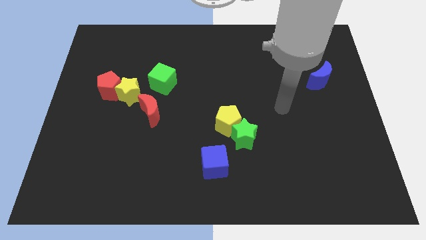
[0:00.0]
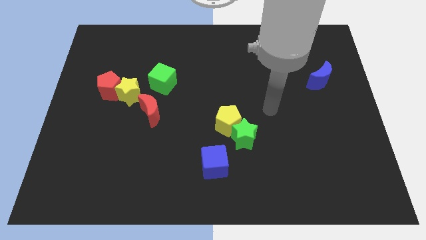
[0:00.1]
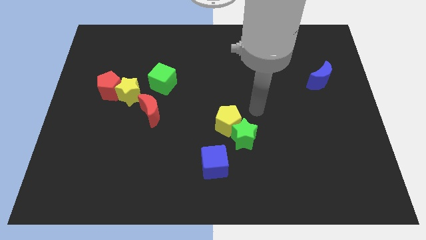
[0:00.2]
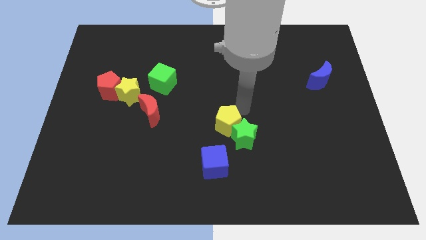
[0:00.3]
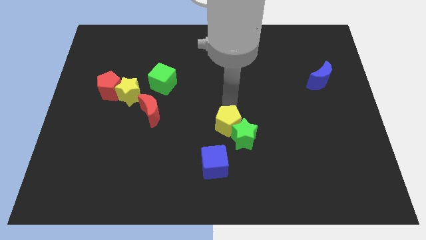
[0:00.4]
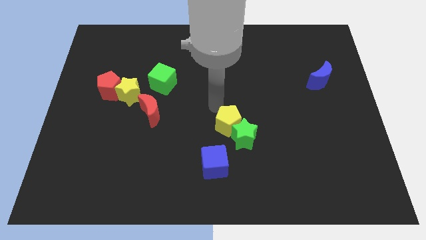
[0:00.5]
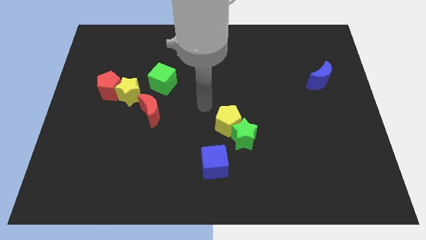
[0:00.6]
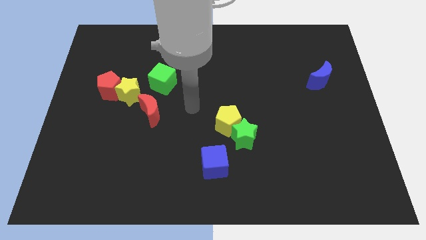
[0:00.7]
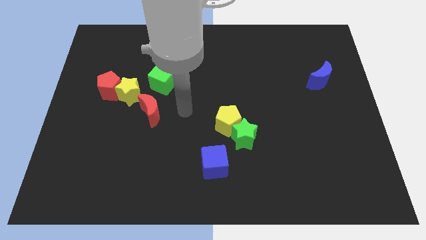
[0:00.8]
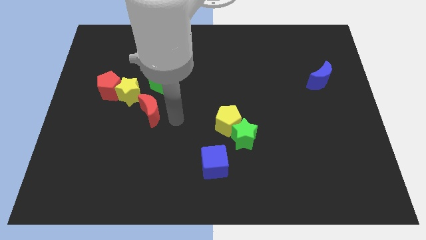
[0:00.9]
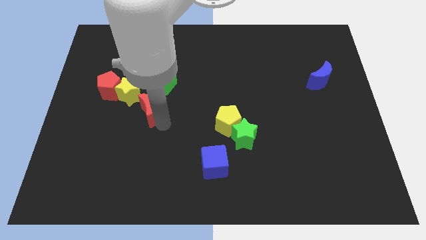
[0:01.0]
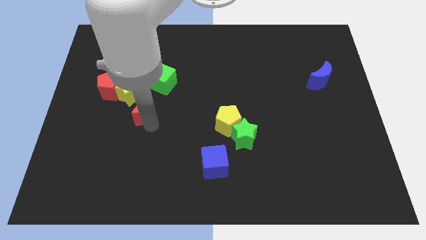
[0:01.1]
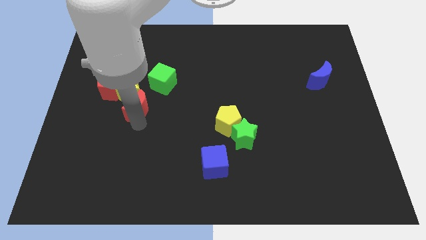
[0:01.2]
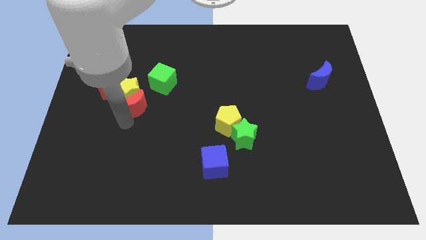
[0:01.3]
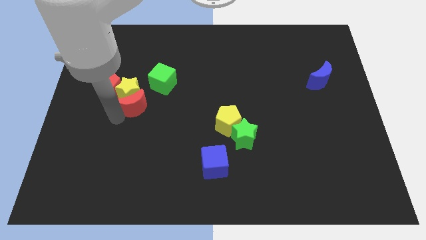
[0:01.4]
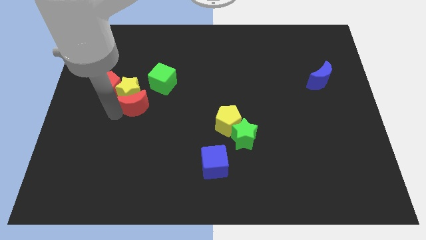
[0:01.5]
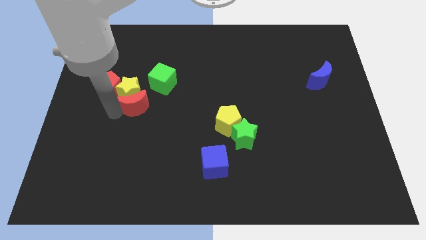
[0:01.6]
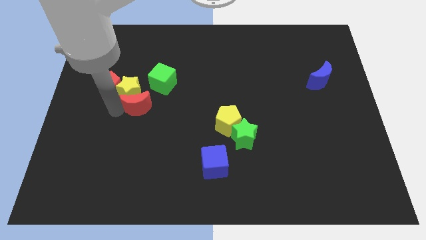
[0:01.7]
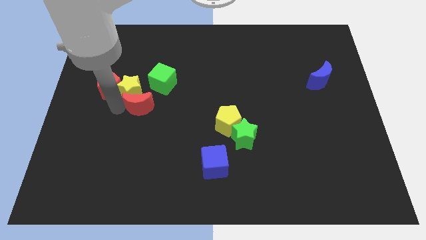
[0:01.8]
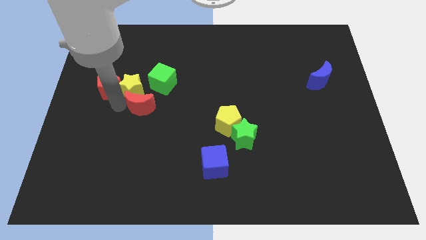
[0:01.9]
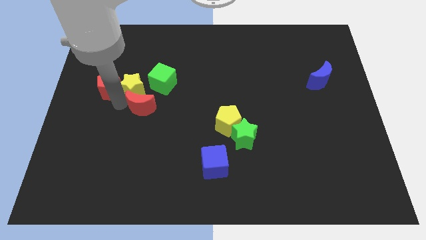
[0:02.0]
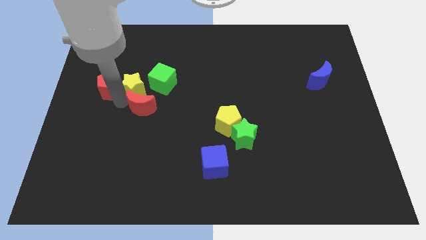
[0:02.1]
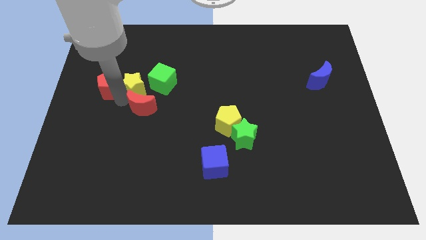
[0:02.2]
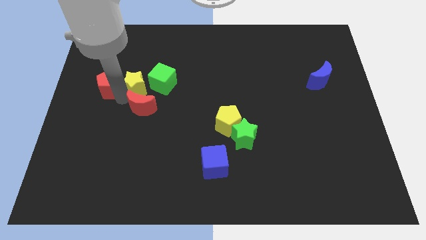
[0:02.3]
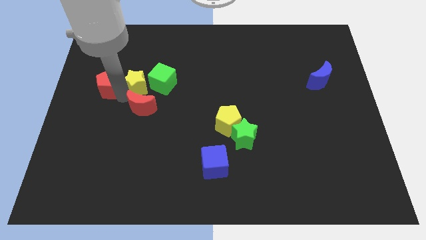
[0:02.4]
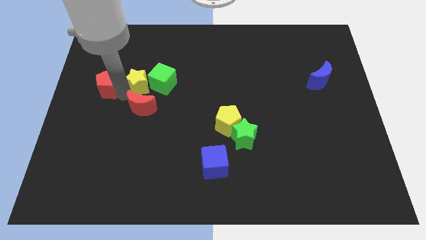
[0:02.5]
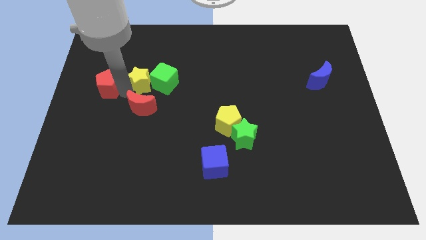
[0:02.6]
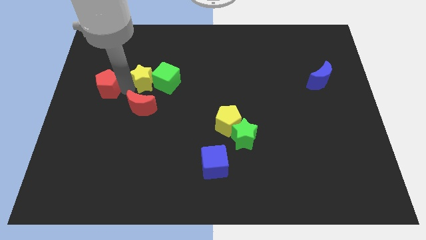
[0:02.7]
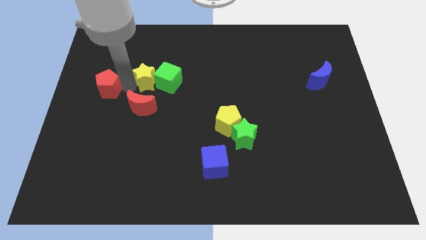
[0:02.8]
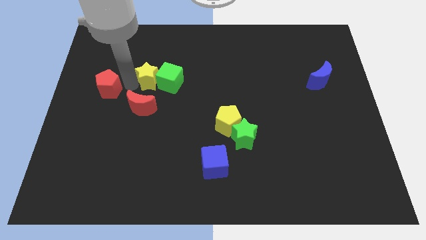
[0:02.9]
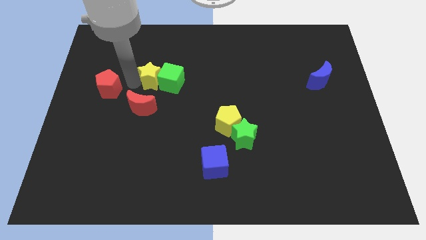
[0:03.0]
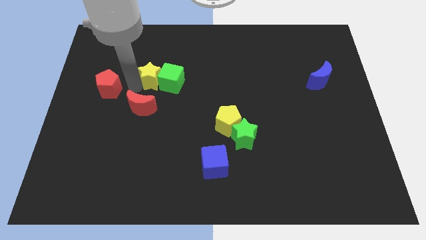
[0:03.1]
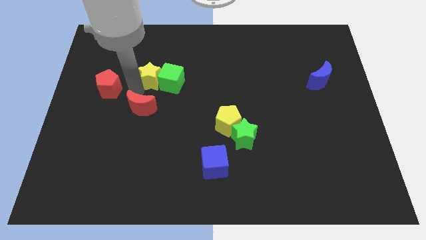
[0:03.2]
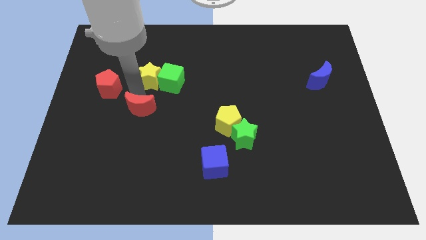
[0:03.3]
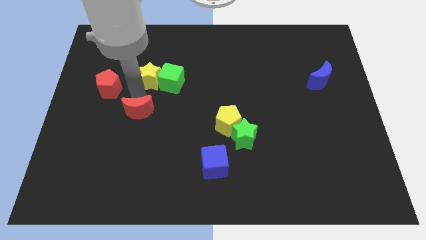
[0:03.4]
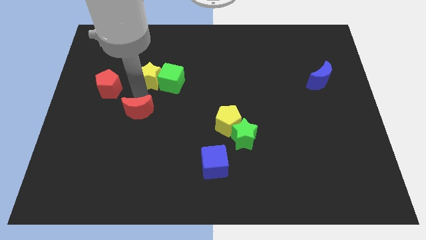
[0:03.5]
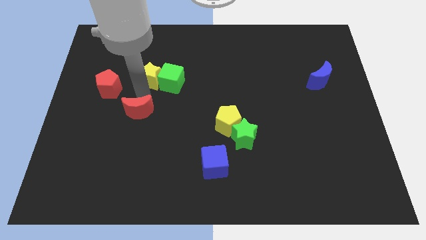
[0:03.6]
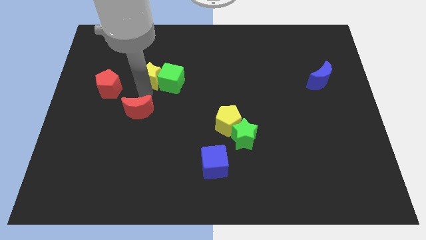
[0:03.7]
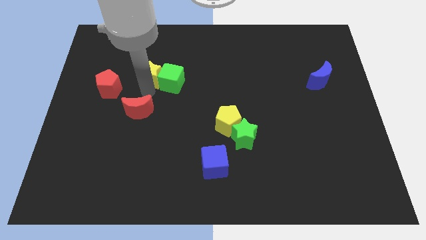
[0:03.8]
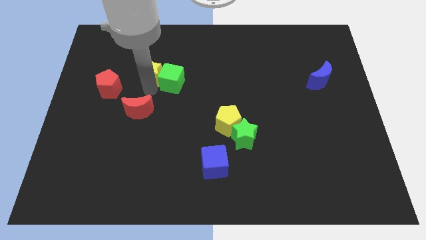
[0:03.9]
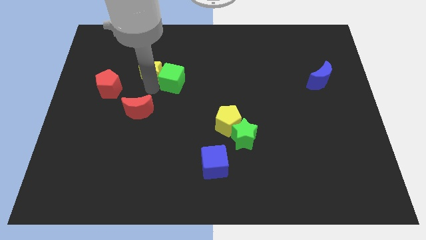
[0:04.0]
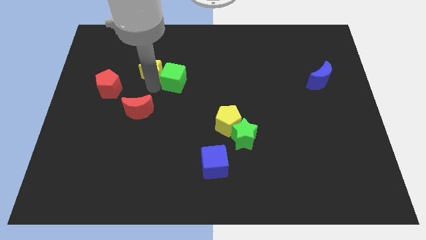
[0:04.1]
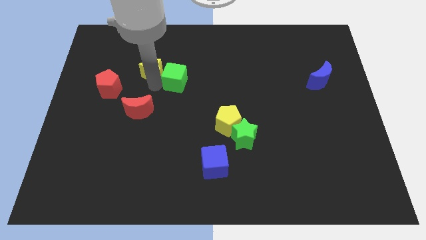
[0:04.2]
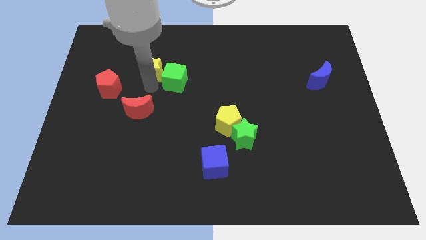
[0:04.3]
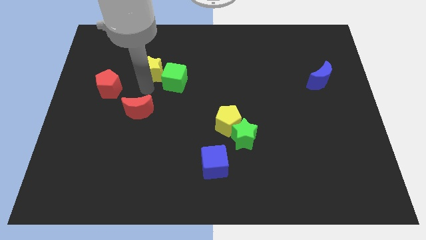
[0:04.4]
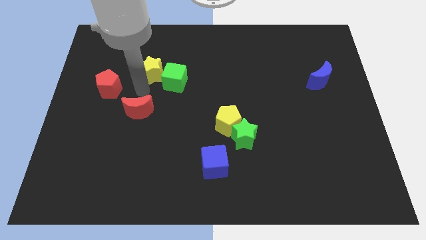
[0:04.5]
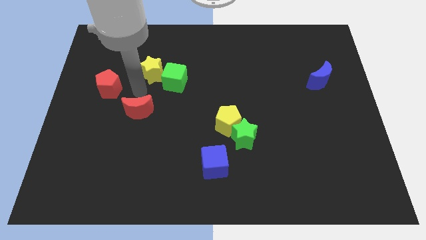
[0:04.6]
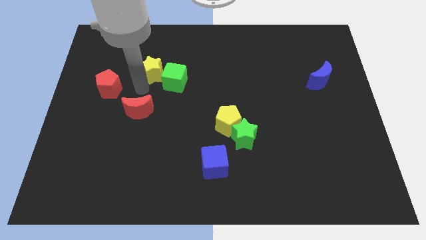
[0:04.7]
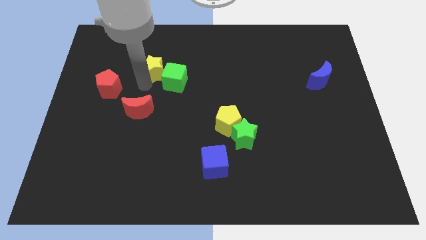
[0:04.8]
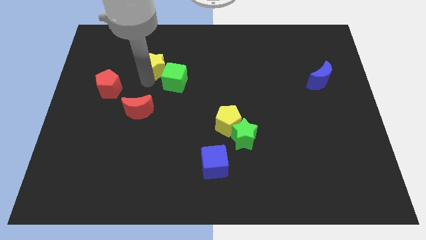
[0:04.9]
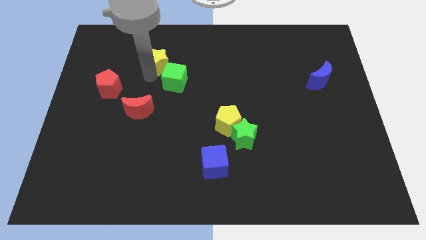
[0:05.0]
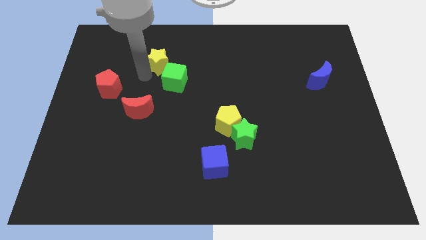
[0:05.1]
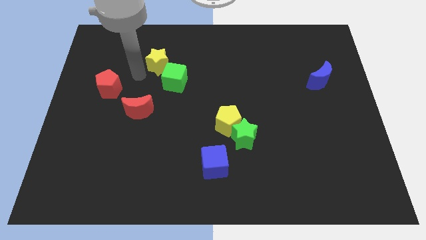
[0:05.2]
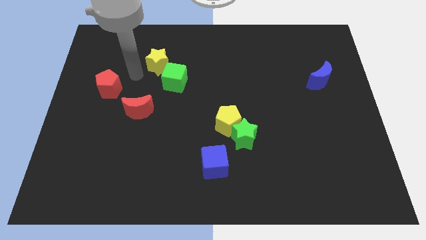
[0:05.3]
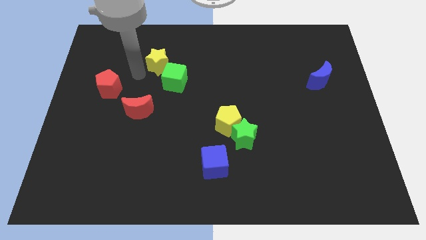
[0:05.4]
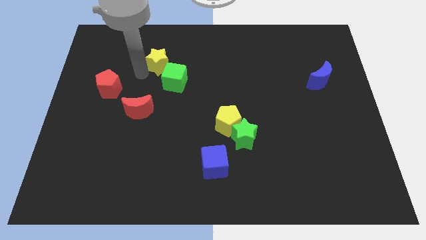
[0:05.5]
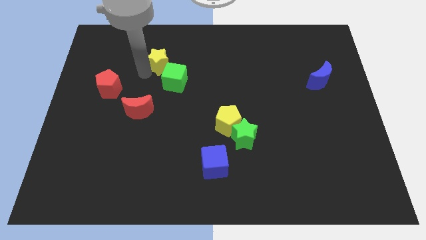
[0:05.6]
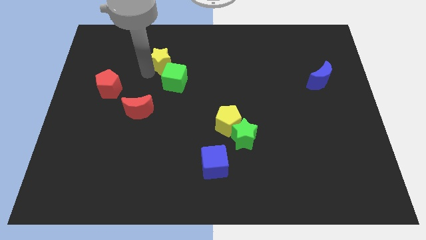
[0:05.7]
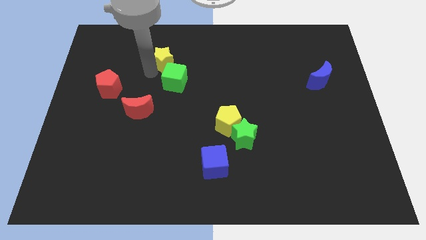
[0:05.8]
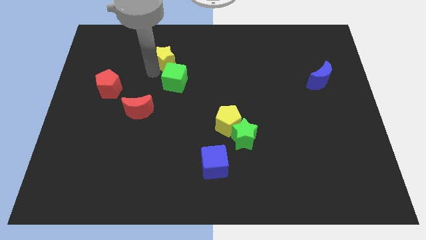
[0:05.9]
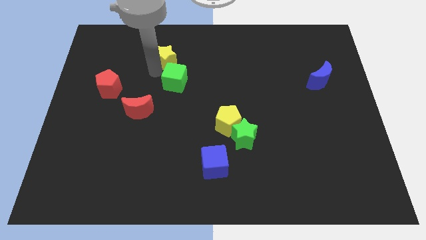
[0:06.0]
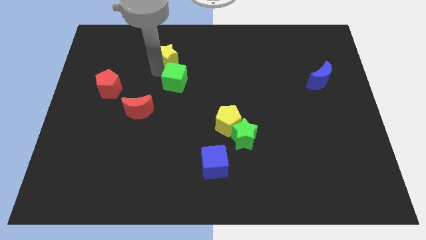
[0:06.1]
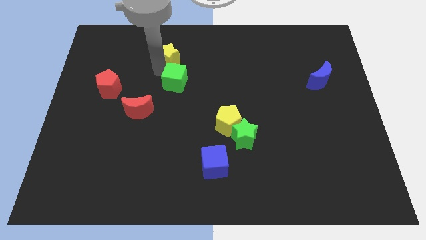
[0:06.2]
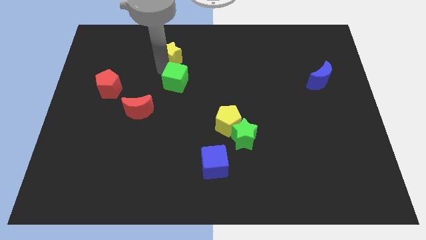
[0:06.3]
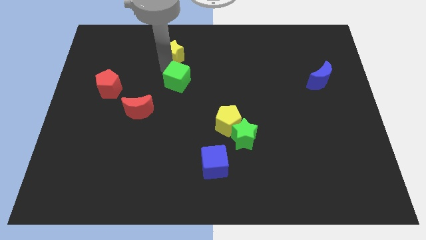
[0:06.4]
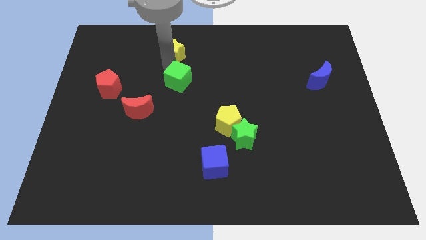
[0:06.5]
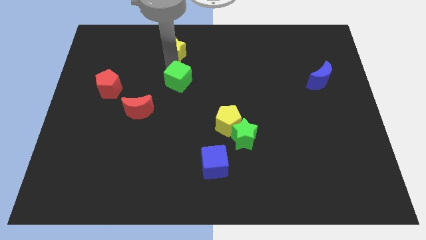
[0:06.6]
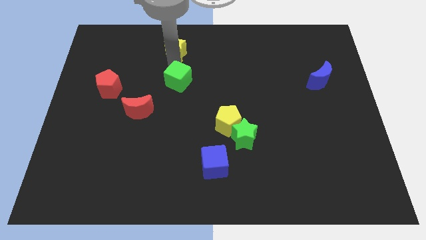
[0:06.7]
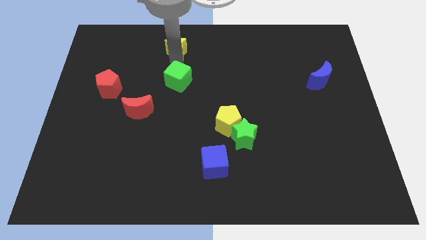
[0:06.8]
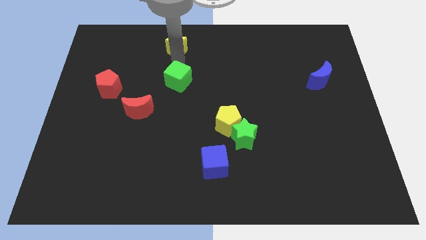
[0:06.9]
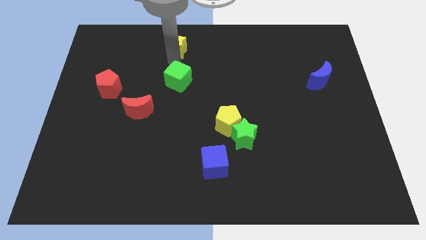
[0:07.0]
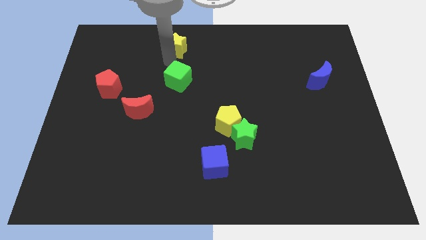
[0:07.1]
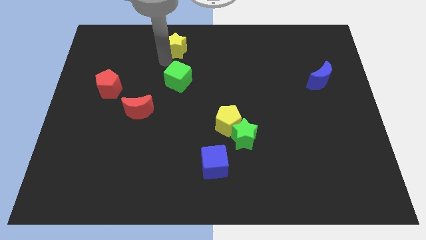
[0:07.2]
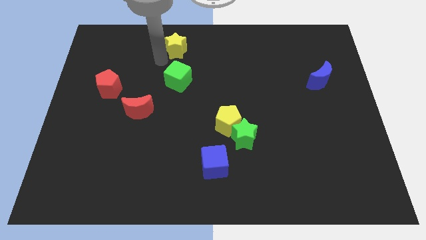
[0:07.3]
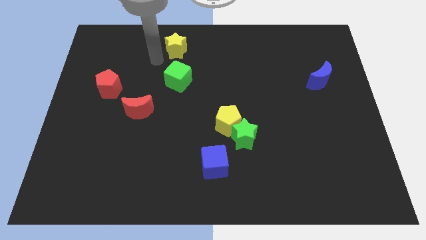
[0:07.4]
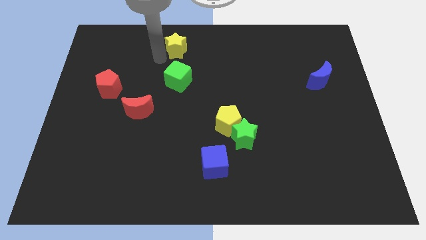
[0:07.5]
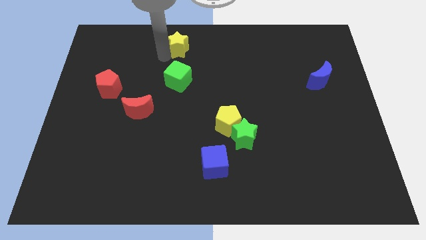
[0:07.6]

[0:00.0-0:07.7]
slide the yellow star to the towards your base
